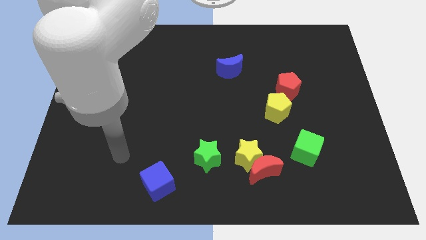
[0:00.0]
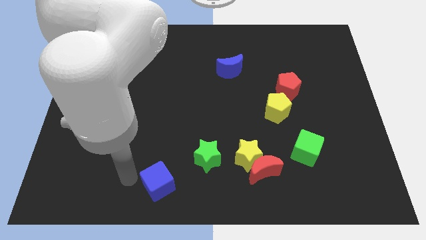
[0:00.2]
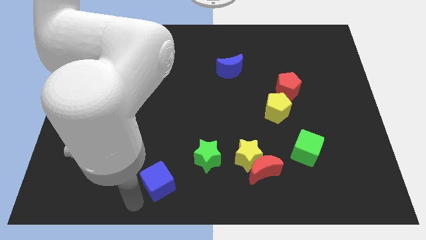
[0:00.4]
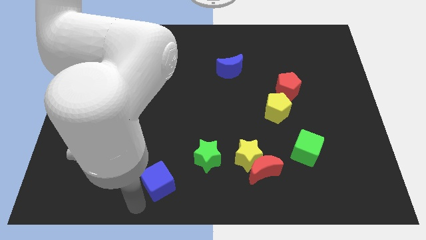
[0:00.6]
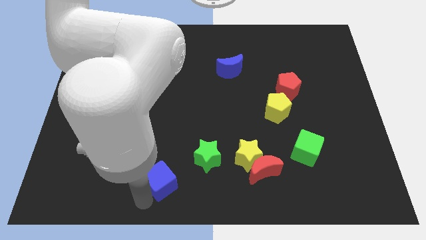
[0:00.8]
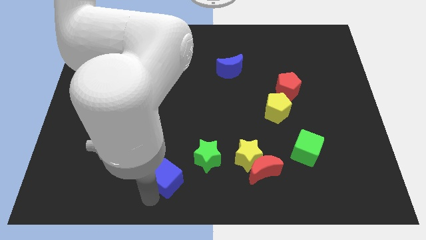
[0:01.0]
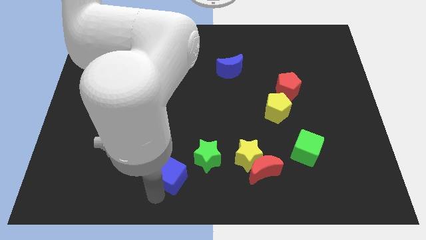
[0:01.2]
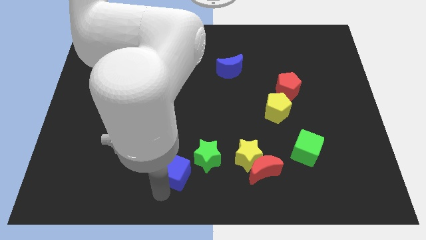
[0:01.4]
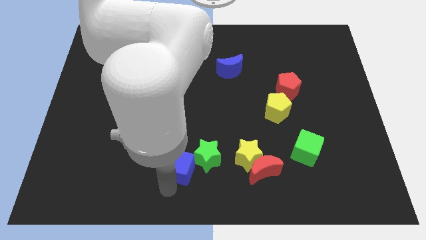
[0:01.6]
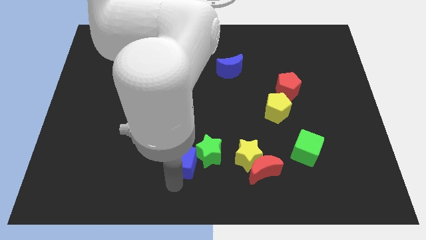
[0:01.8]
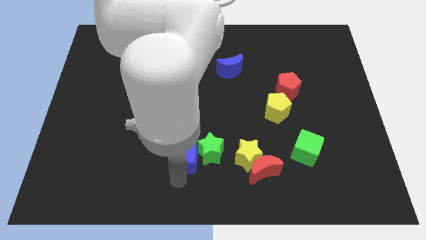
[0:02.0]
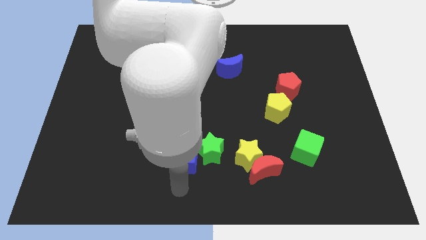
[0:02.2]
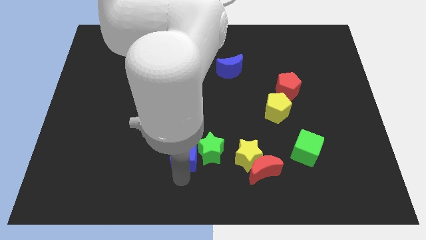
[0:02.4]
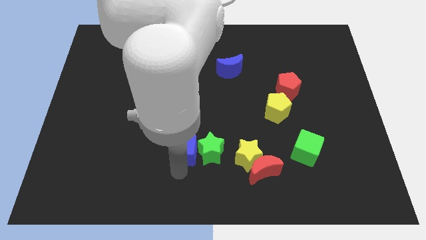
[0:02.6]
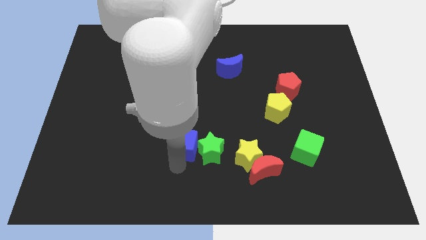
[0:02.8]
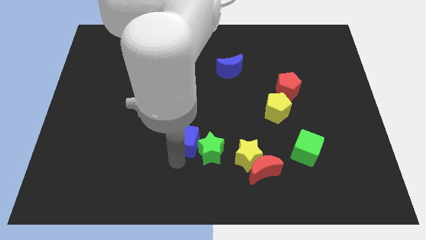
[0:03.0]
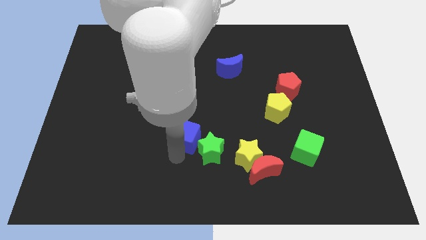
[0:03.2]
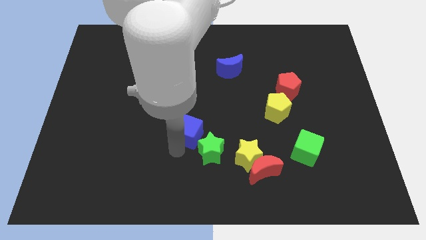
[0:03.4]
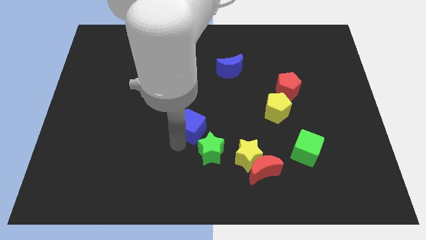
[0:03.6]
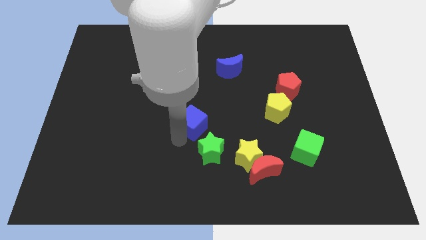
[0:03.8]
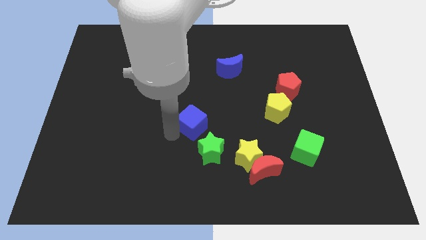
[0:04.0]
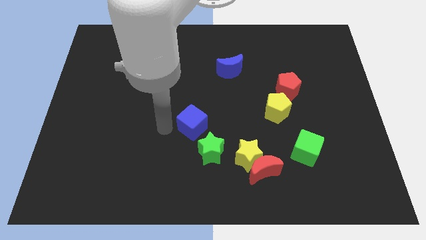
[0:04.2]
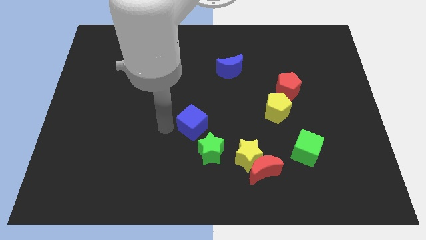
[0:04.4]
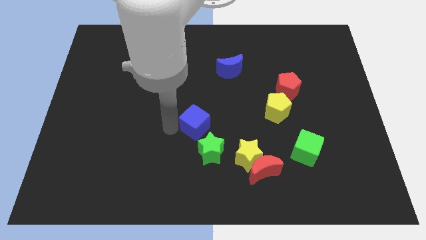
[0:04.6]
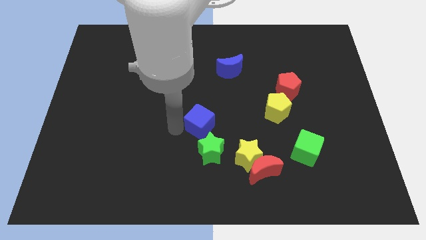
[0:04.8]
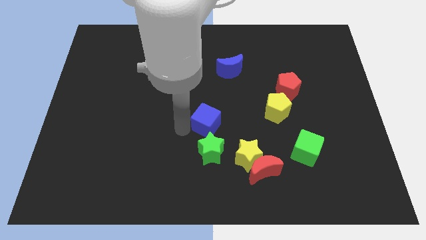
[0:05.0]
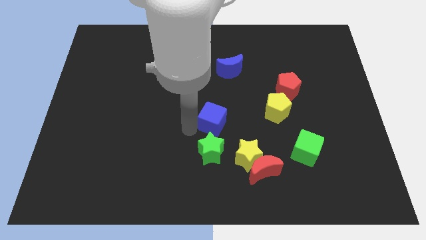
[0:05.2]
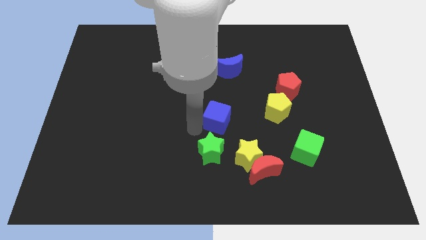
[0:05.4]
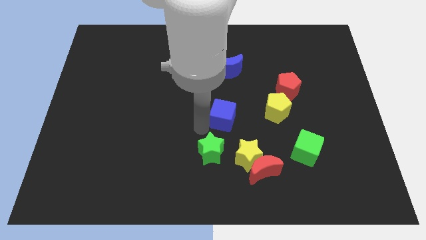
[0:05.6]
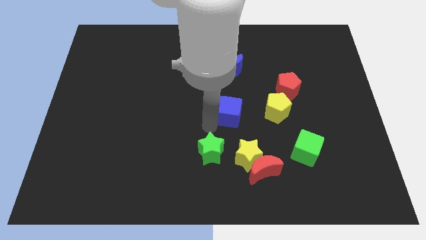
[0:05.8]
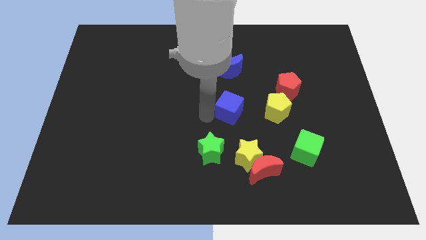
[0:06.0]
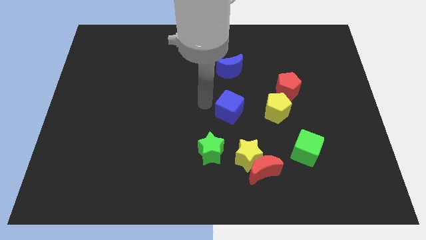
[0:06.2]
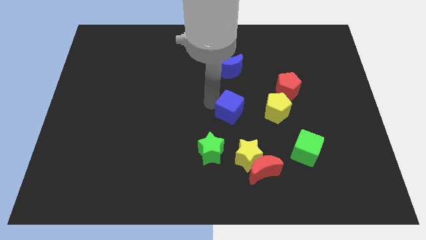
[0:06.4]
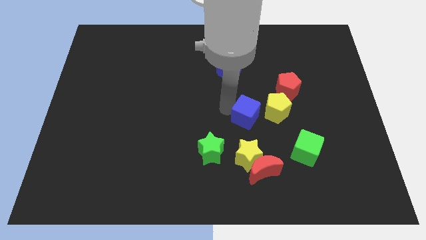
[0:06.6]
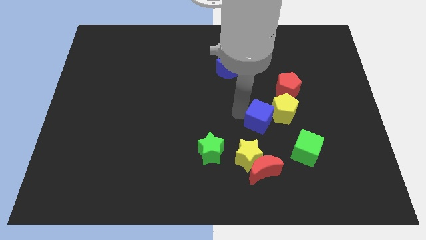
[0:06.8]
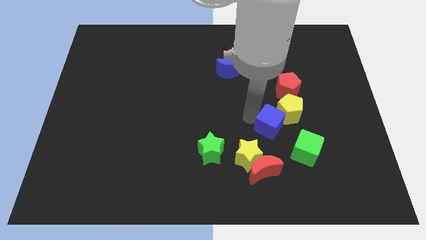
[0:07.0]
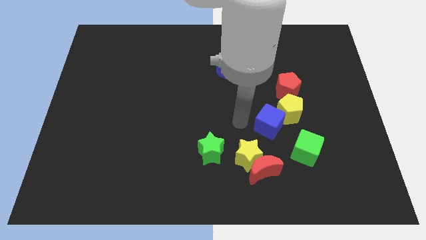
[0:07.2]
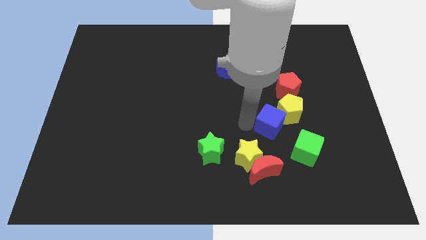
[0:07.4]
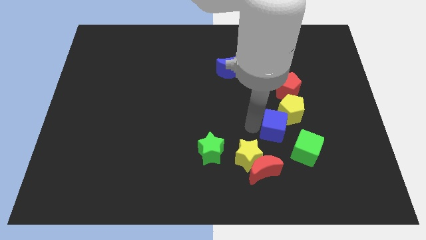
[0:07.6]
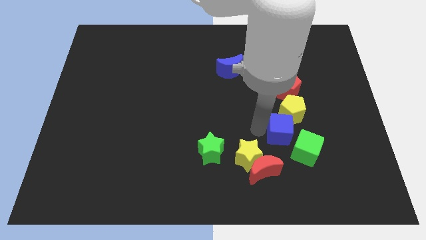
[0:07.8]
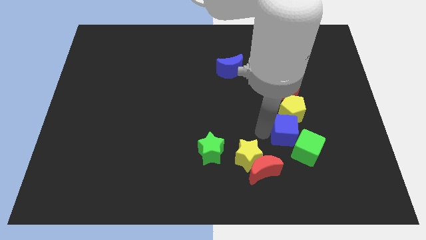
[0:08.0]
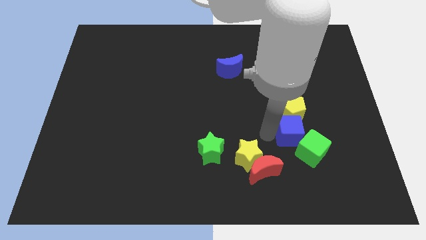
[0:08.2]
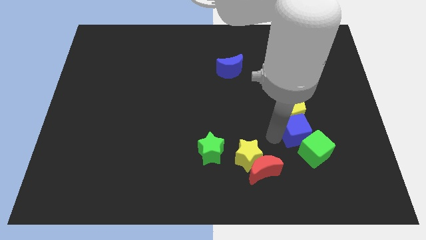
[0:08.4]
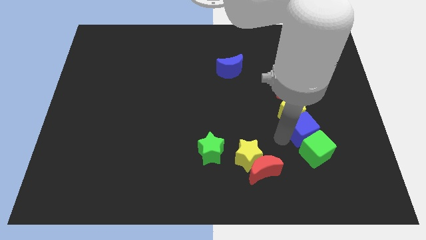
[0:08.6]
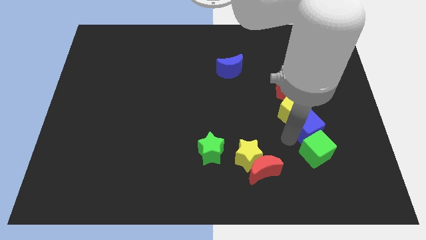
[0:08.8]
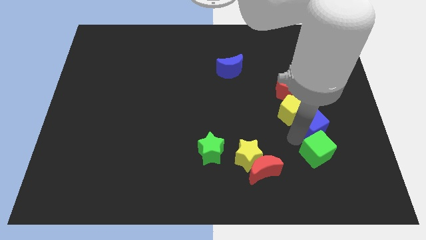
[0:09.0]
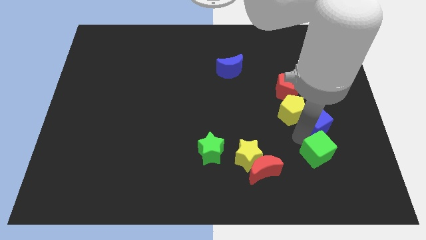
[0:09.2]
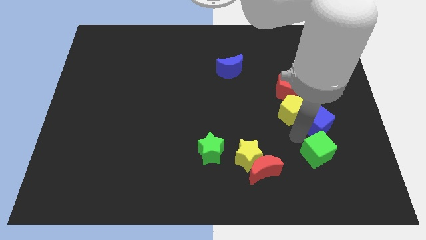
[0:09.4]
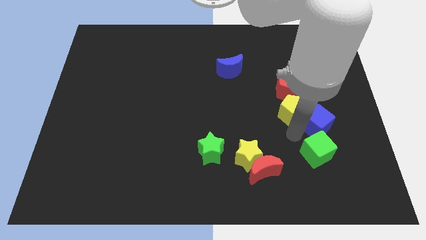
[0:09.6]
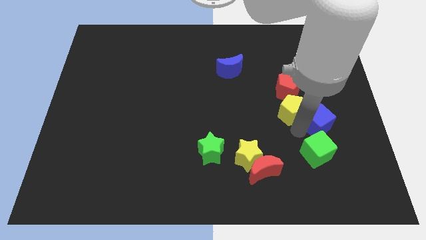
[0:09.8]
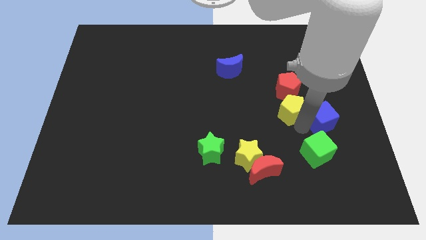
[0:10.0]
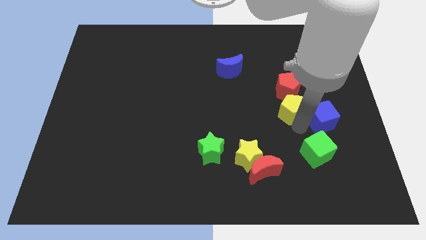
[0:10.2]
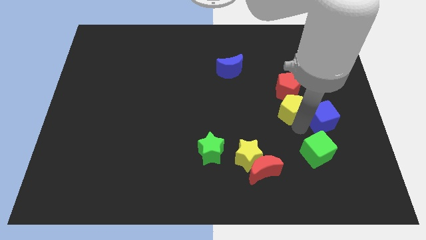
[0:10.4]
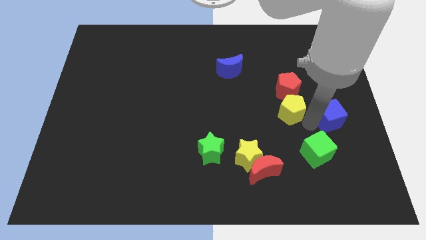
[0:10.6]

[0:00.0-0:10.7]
move the blue cube to the center right

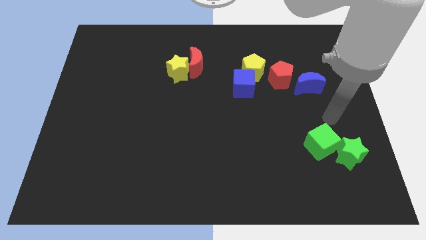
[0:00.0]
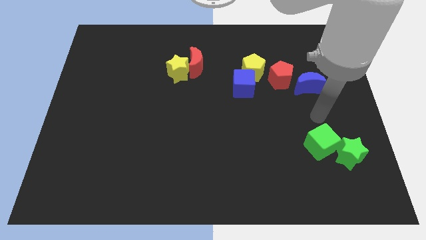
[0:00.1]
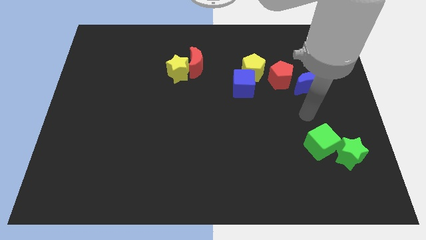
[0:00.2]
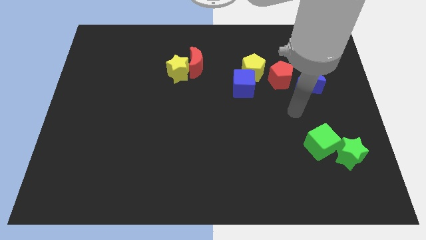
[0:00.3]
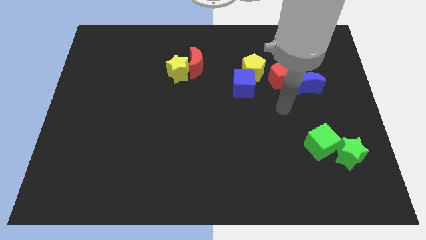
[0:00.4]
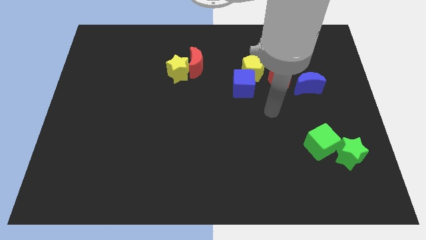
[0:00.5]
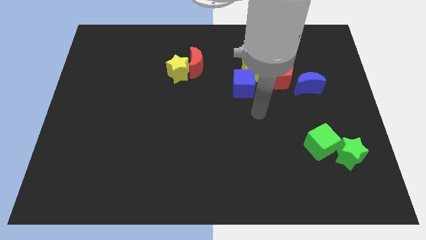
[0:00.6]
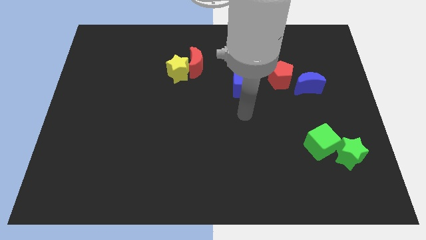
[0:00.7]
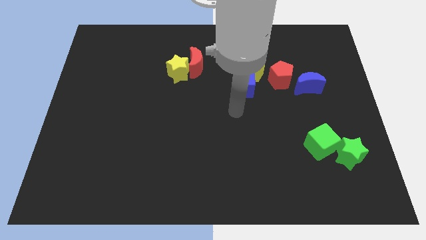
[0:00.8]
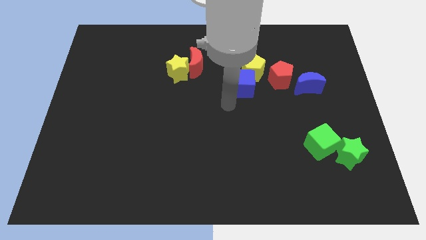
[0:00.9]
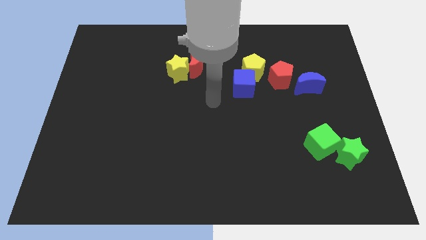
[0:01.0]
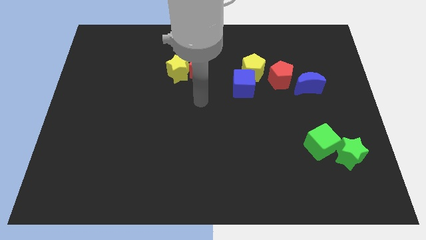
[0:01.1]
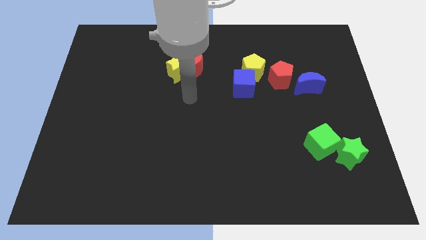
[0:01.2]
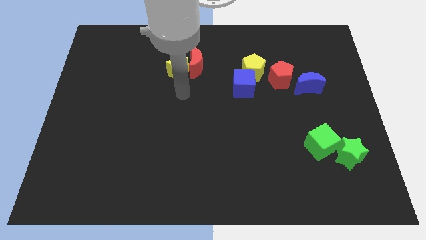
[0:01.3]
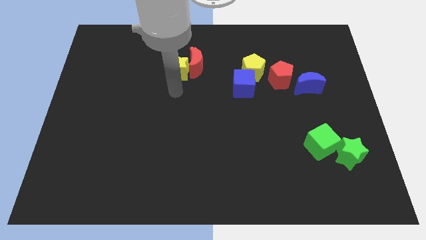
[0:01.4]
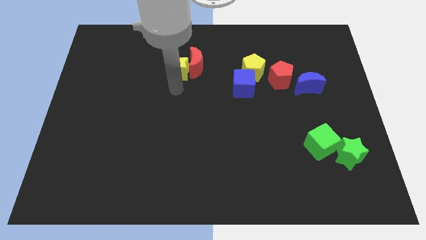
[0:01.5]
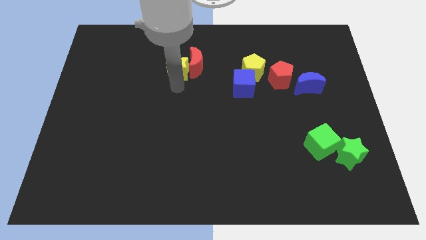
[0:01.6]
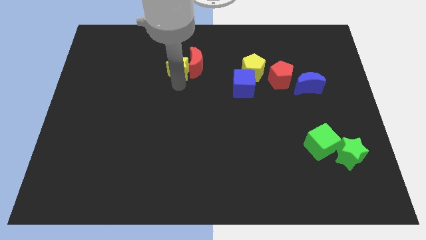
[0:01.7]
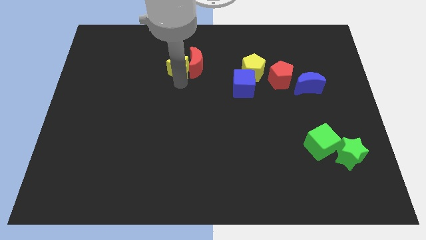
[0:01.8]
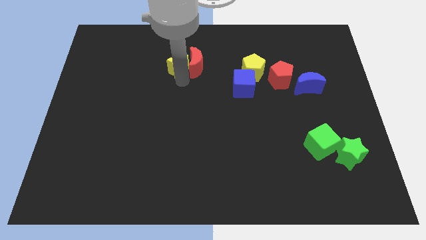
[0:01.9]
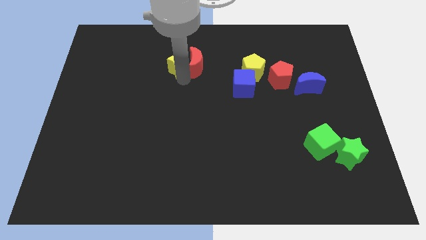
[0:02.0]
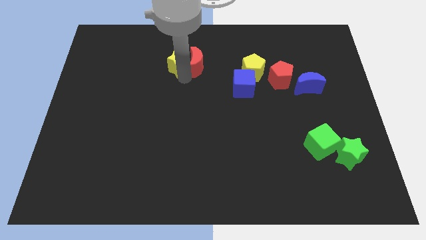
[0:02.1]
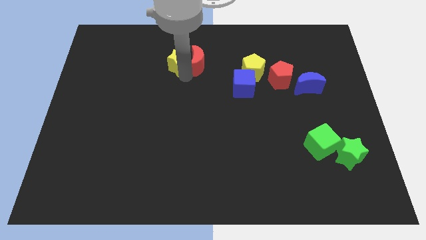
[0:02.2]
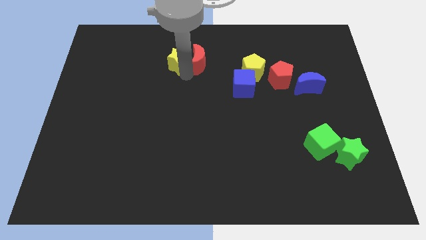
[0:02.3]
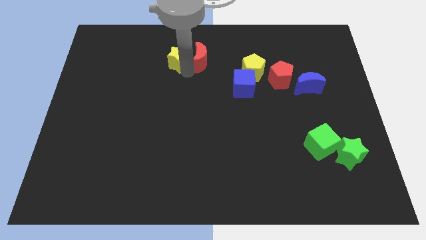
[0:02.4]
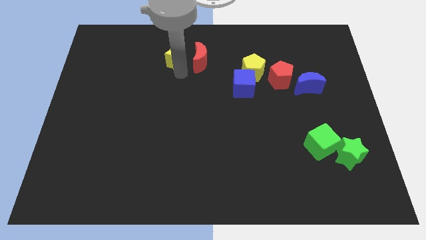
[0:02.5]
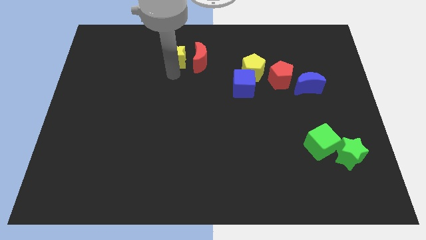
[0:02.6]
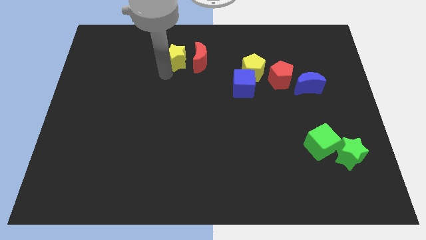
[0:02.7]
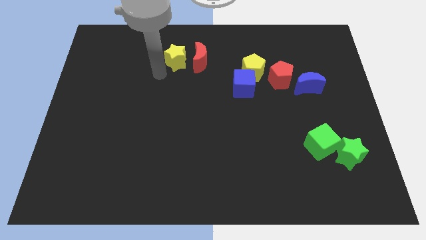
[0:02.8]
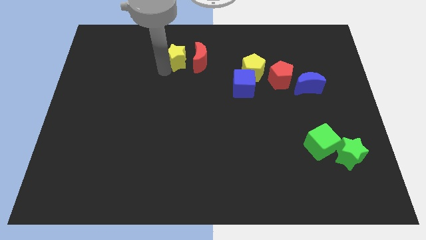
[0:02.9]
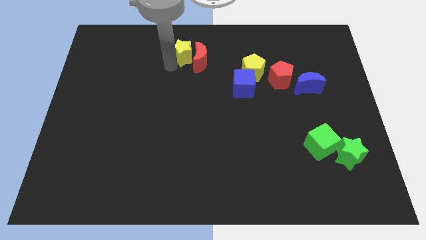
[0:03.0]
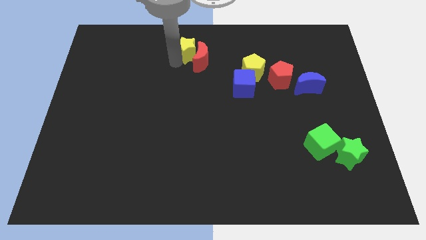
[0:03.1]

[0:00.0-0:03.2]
slide the yellow star to the top
